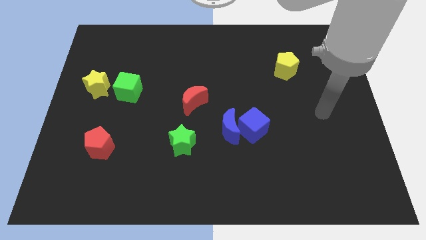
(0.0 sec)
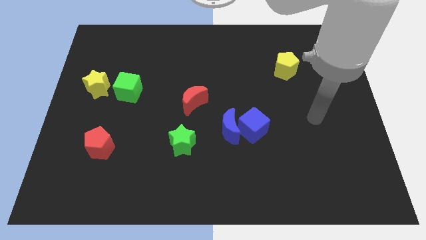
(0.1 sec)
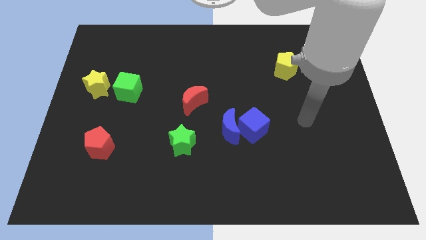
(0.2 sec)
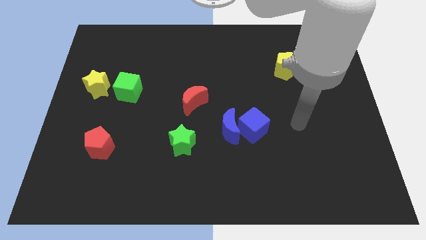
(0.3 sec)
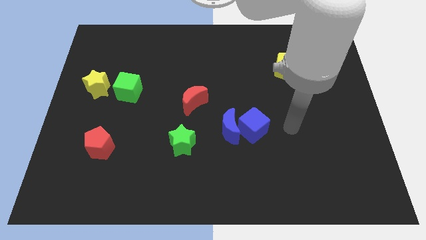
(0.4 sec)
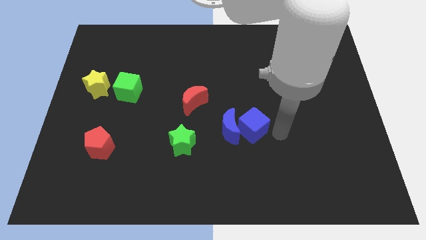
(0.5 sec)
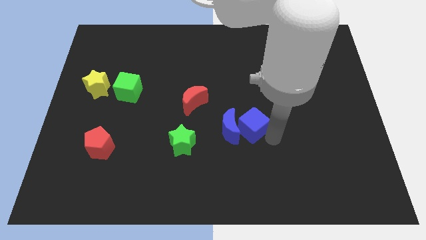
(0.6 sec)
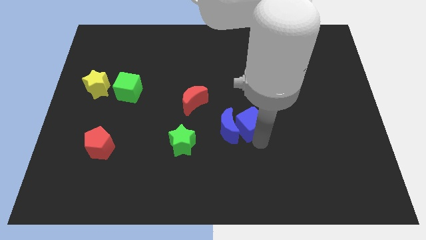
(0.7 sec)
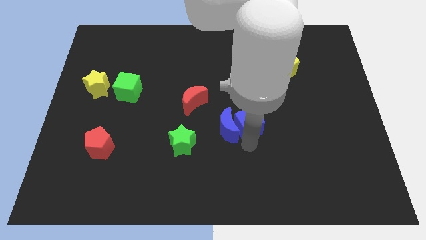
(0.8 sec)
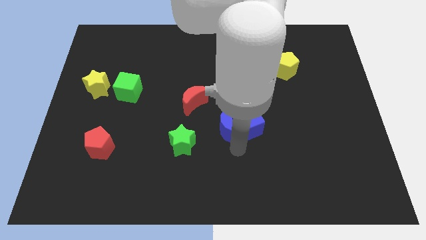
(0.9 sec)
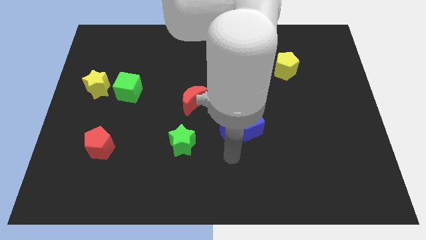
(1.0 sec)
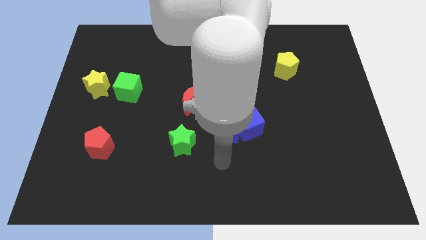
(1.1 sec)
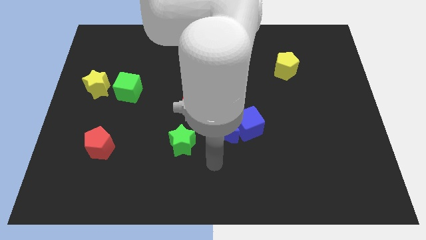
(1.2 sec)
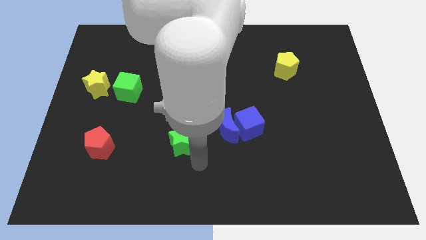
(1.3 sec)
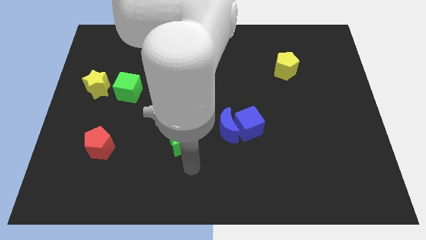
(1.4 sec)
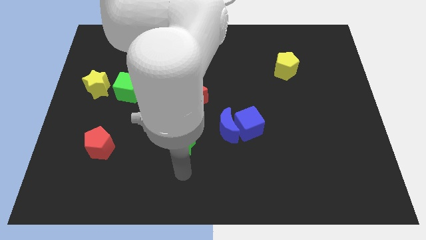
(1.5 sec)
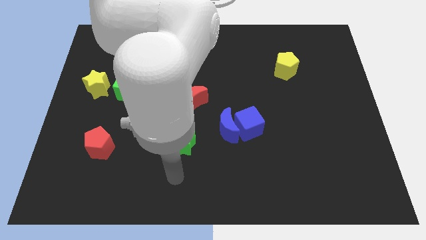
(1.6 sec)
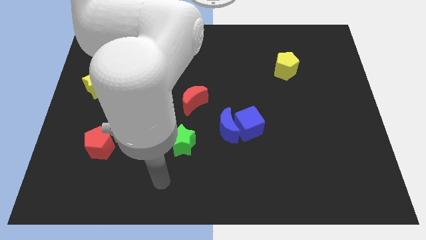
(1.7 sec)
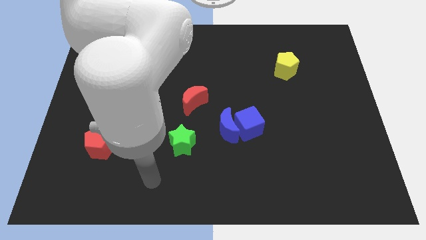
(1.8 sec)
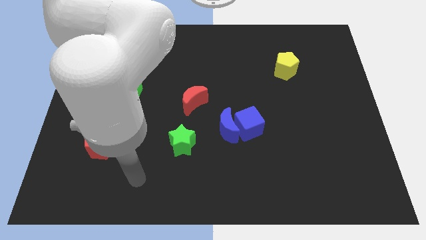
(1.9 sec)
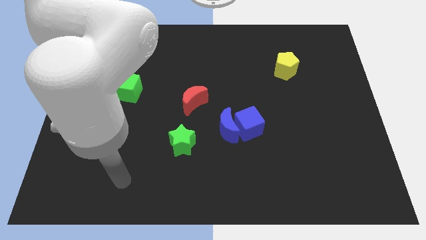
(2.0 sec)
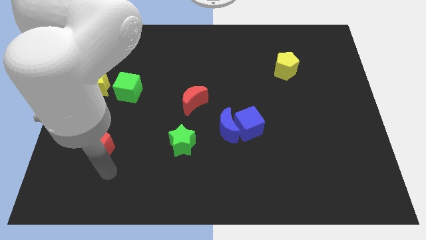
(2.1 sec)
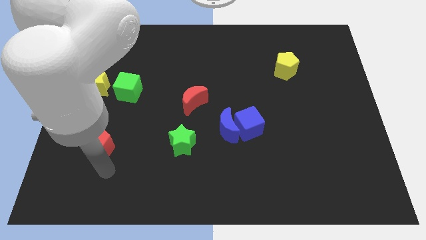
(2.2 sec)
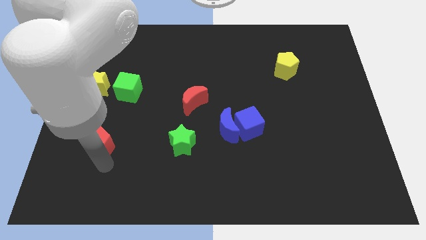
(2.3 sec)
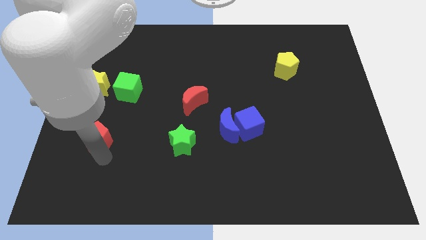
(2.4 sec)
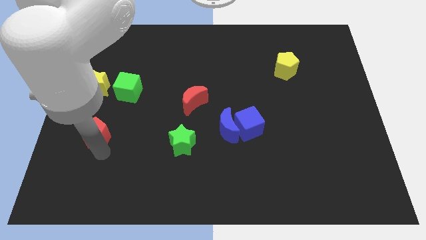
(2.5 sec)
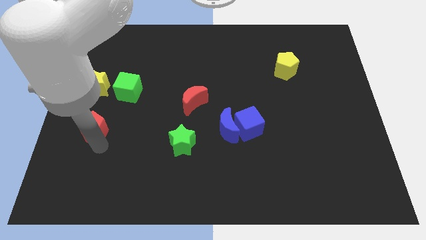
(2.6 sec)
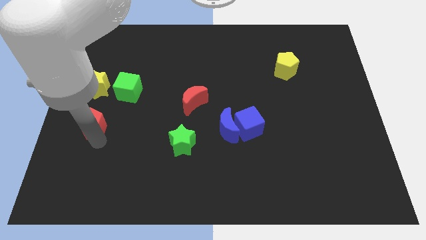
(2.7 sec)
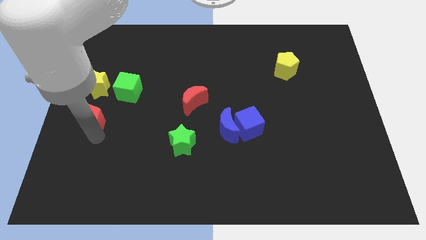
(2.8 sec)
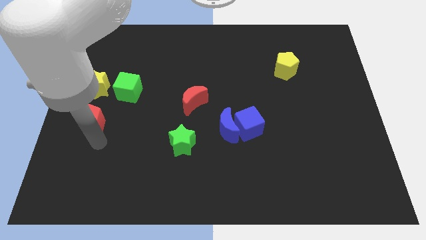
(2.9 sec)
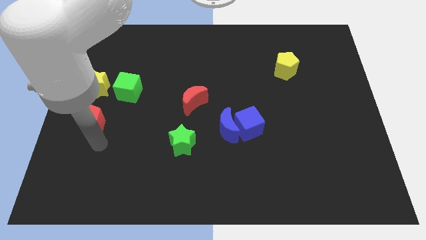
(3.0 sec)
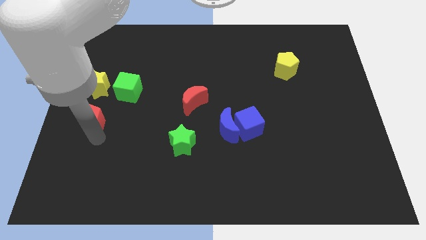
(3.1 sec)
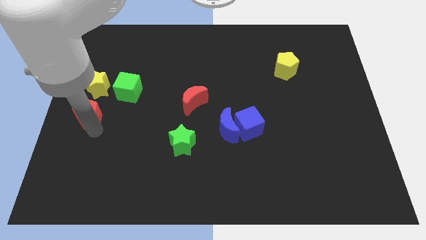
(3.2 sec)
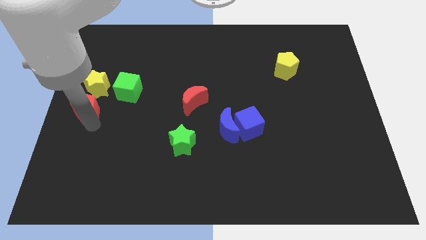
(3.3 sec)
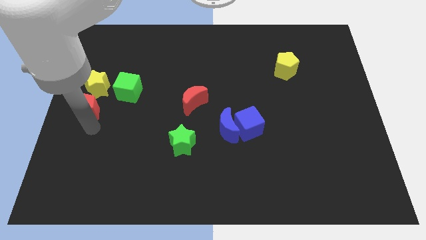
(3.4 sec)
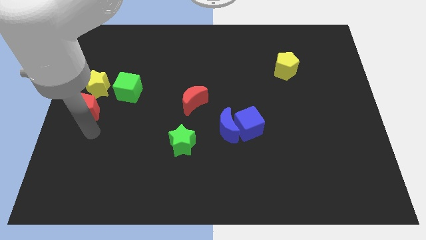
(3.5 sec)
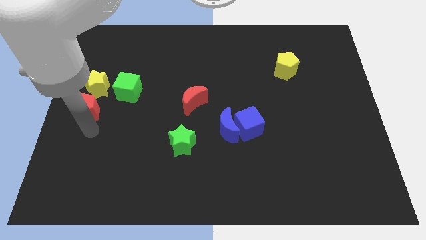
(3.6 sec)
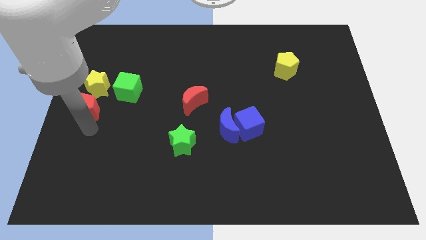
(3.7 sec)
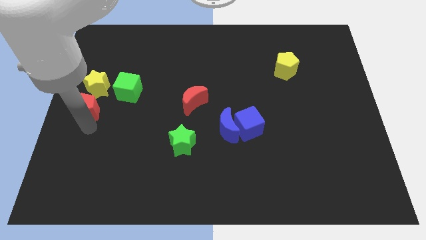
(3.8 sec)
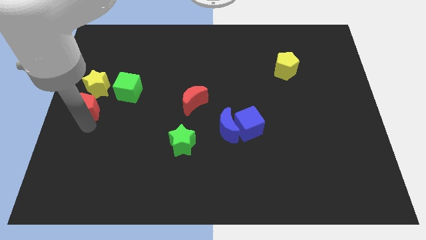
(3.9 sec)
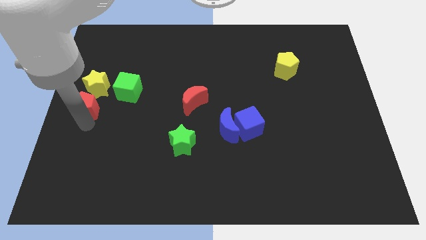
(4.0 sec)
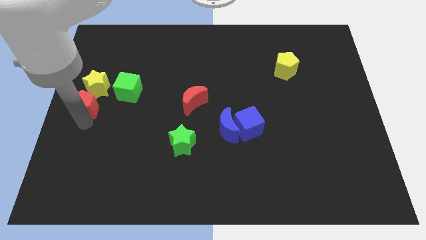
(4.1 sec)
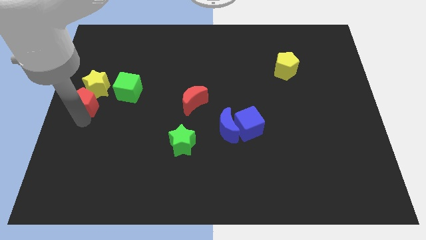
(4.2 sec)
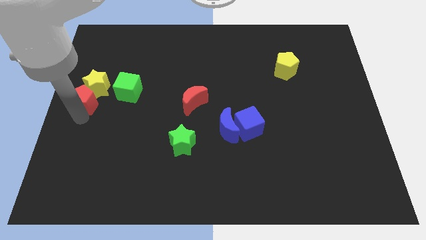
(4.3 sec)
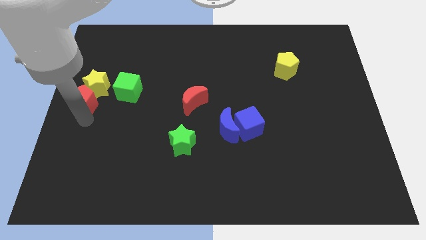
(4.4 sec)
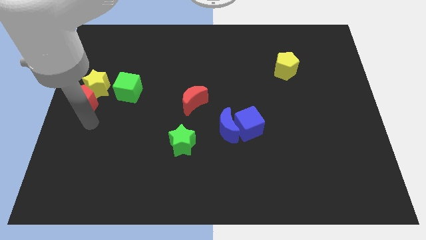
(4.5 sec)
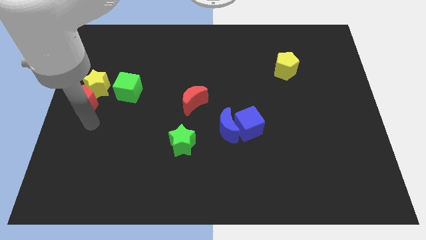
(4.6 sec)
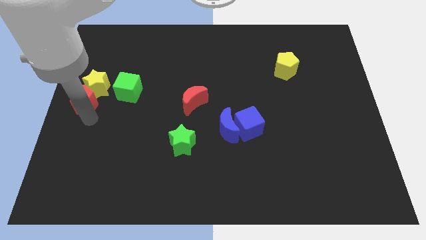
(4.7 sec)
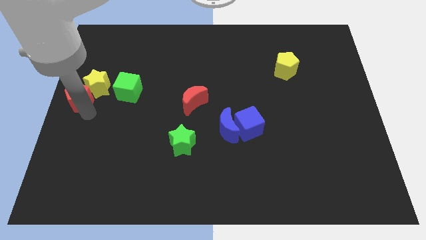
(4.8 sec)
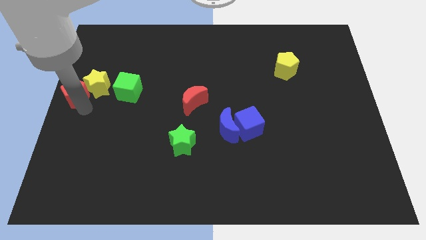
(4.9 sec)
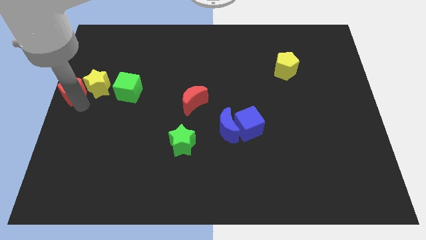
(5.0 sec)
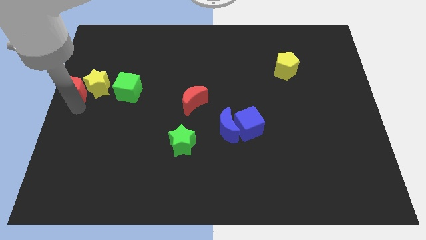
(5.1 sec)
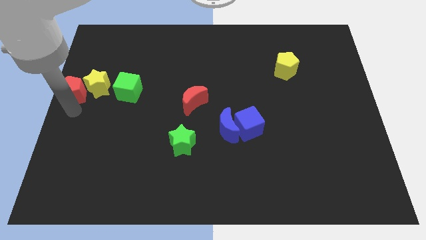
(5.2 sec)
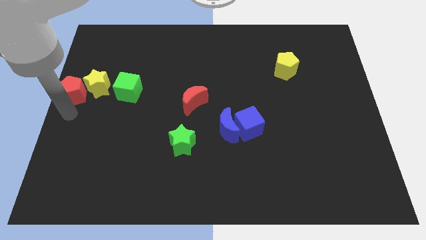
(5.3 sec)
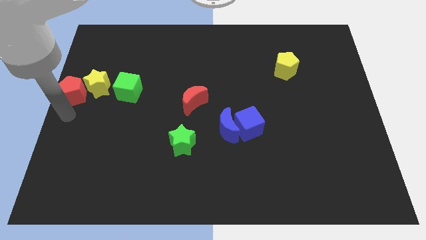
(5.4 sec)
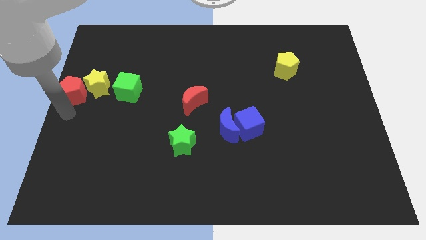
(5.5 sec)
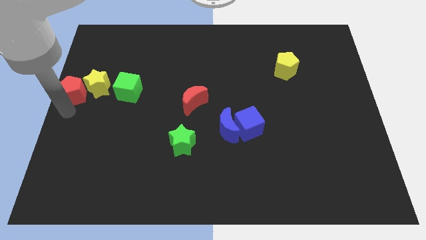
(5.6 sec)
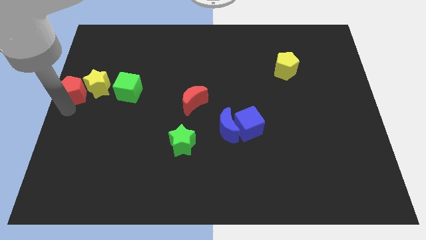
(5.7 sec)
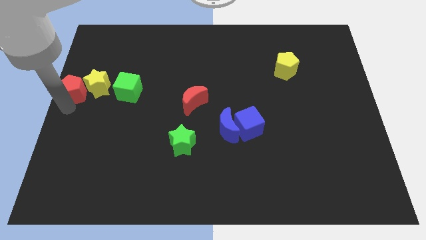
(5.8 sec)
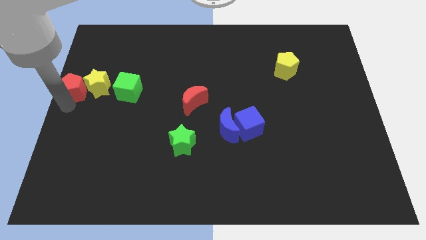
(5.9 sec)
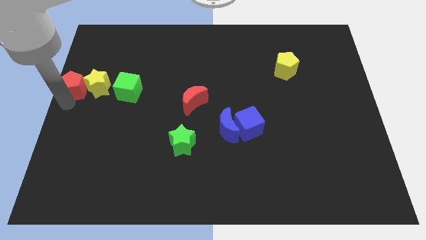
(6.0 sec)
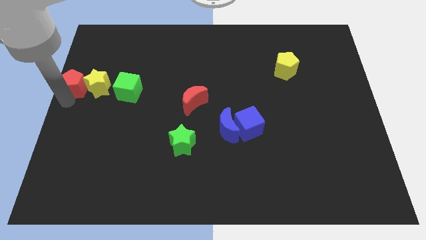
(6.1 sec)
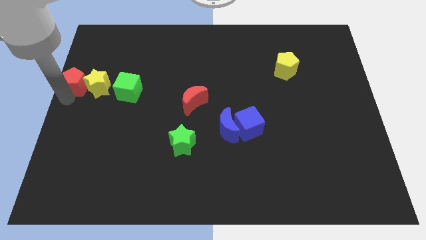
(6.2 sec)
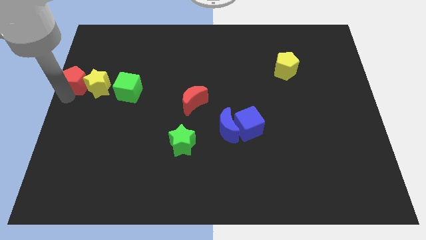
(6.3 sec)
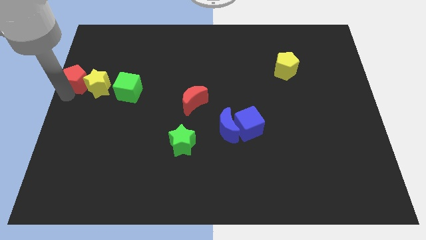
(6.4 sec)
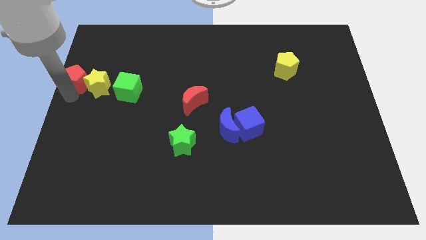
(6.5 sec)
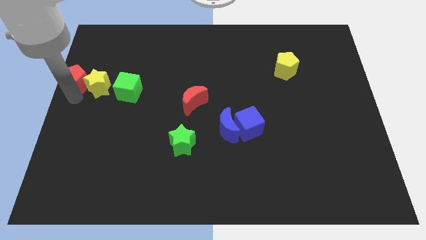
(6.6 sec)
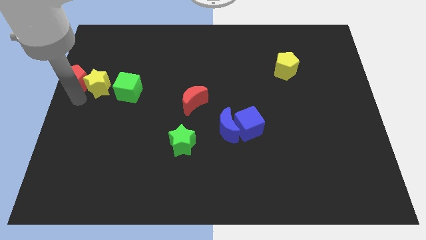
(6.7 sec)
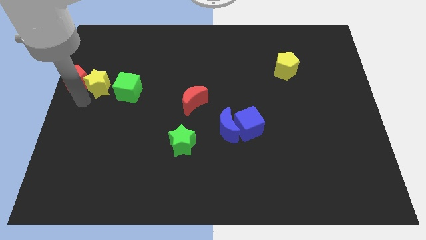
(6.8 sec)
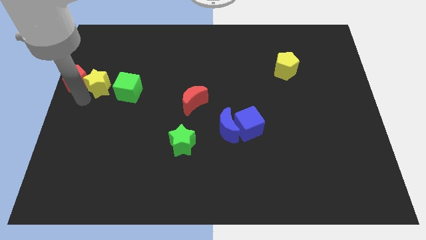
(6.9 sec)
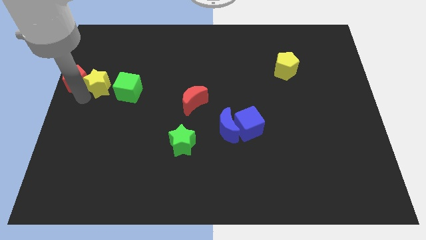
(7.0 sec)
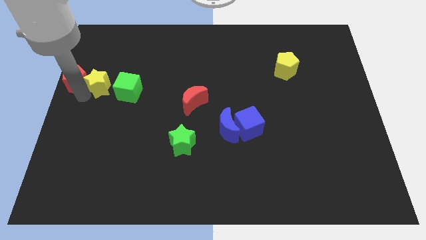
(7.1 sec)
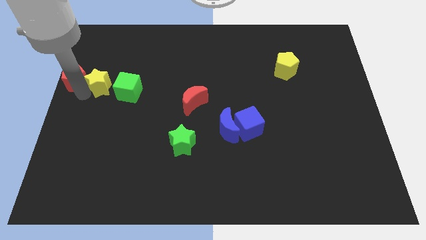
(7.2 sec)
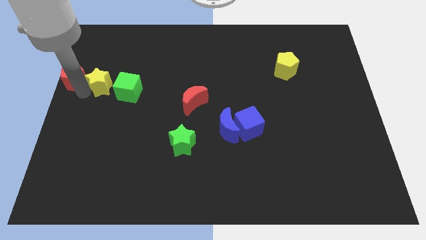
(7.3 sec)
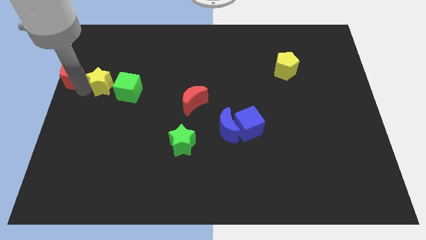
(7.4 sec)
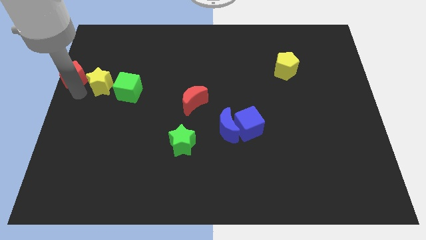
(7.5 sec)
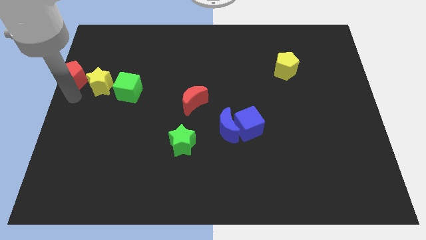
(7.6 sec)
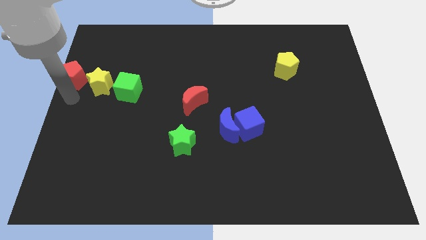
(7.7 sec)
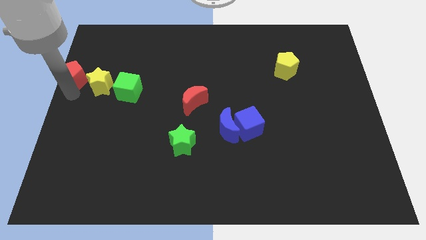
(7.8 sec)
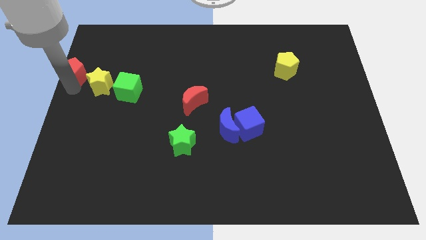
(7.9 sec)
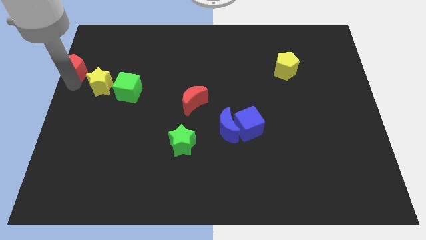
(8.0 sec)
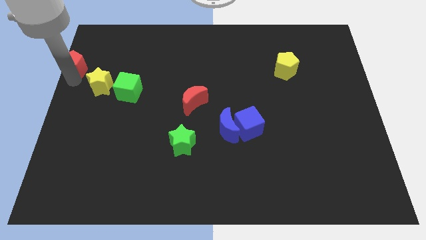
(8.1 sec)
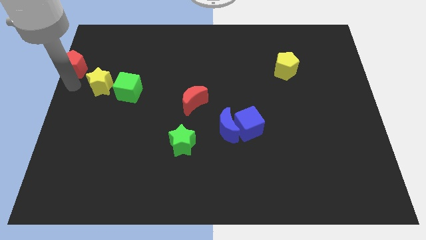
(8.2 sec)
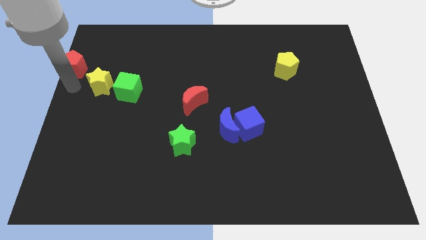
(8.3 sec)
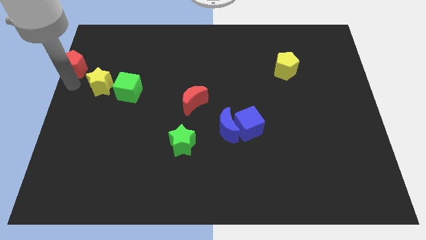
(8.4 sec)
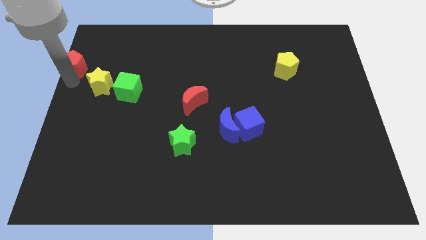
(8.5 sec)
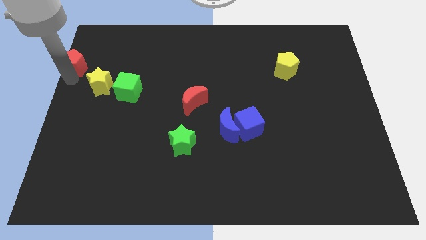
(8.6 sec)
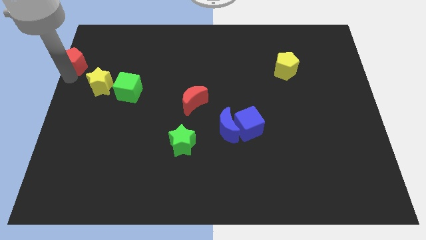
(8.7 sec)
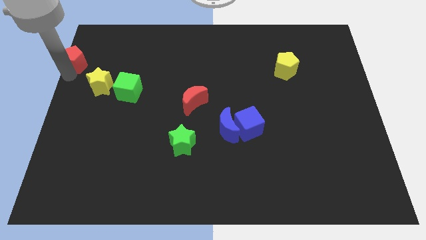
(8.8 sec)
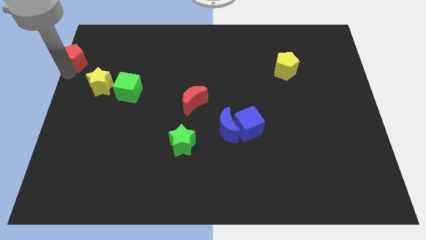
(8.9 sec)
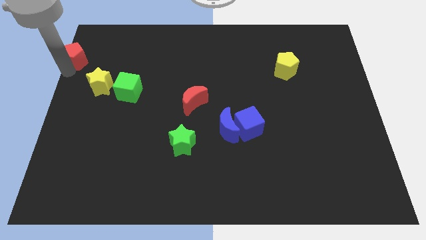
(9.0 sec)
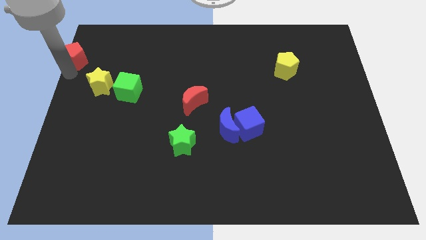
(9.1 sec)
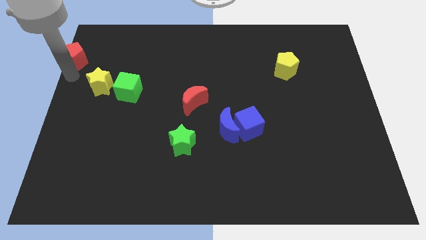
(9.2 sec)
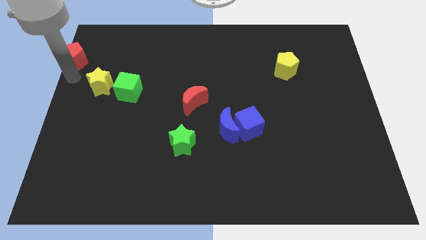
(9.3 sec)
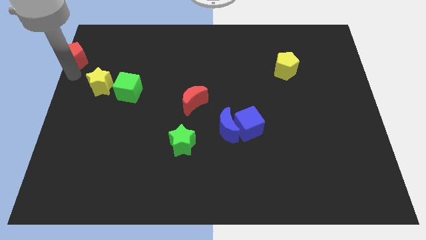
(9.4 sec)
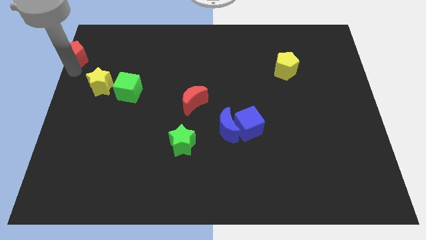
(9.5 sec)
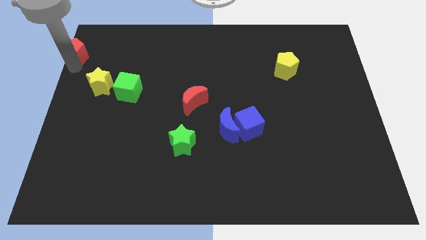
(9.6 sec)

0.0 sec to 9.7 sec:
slide the red pentagon to the top left of the board
